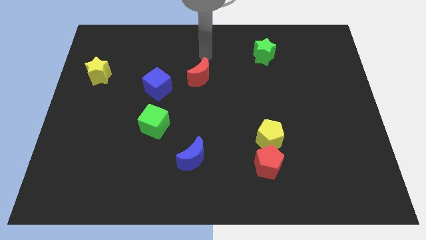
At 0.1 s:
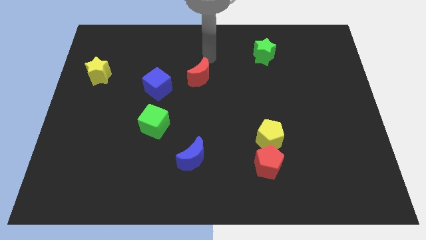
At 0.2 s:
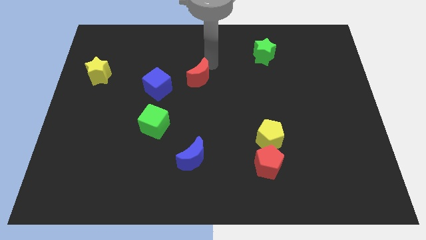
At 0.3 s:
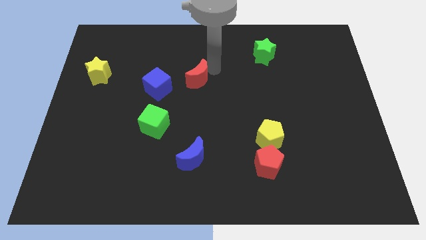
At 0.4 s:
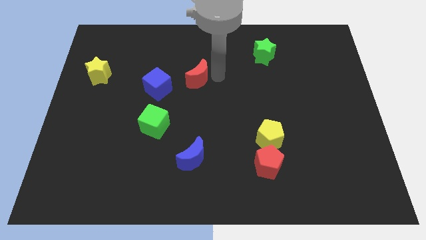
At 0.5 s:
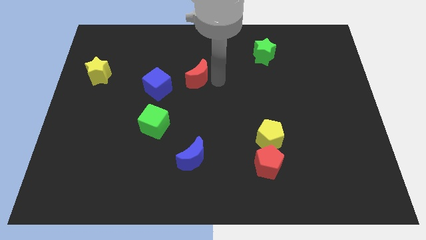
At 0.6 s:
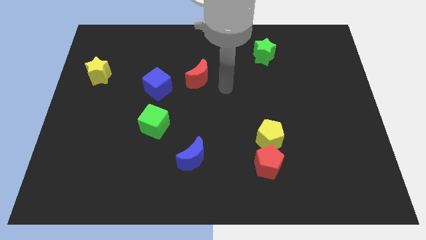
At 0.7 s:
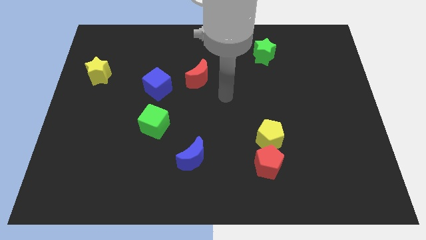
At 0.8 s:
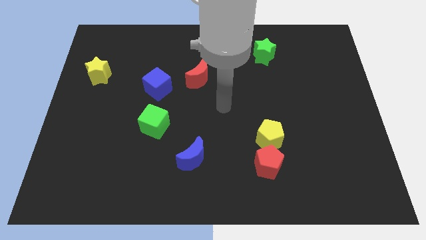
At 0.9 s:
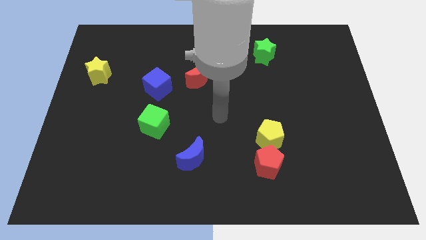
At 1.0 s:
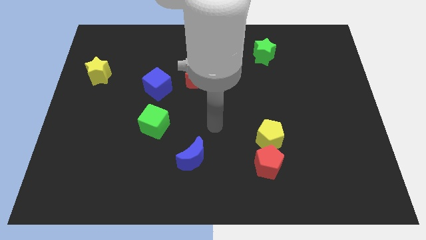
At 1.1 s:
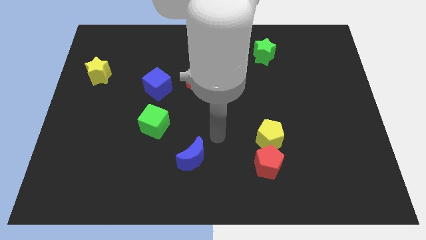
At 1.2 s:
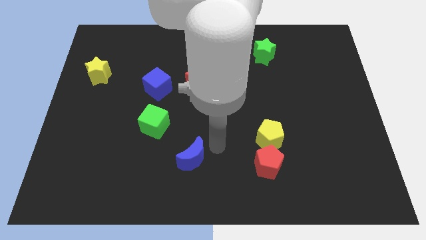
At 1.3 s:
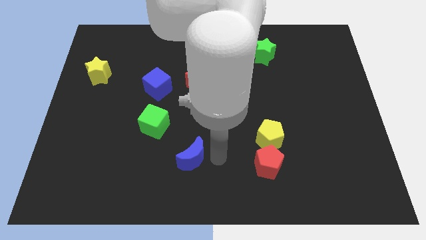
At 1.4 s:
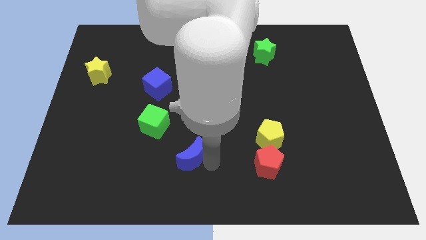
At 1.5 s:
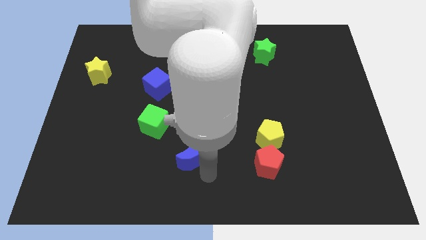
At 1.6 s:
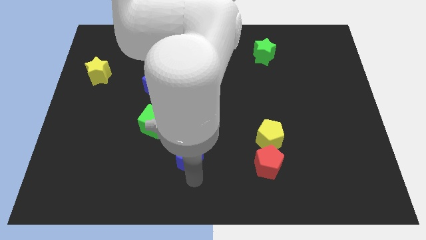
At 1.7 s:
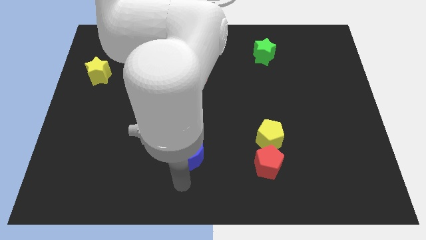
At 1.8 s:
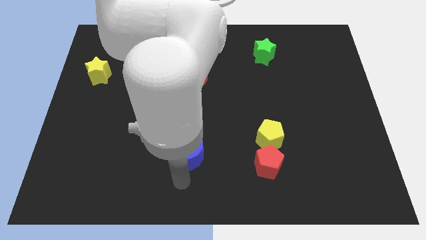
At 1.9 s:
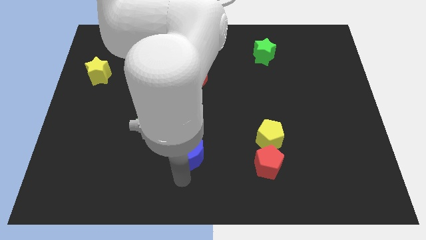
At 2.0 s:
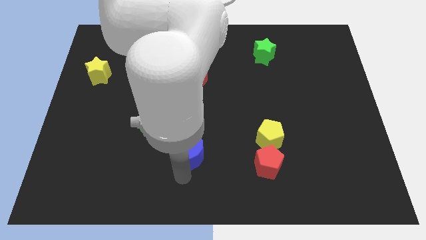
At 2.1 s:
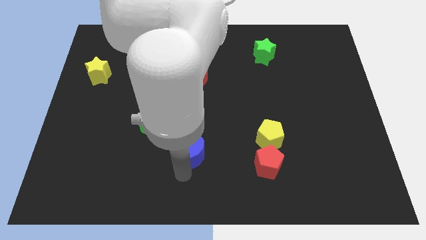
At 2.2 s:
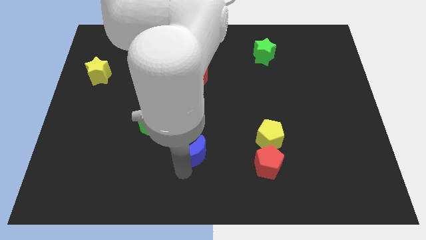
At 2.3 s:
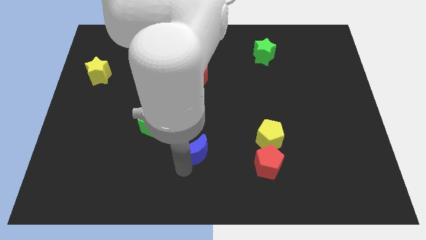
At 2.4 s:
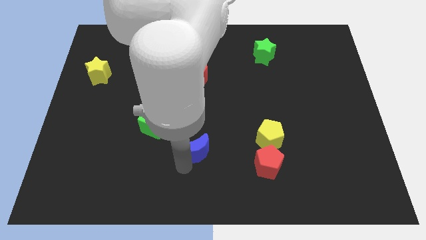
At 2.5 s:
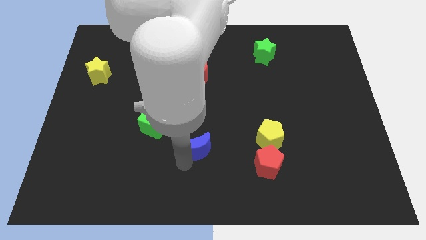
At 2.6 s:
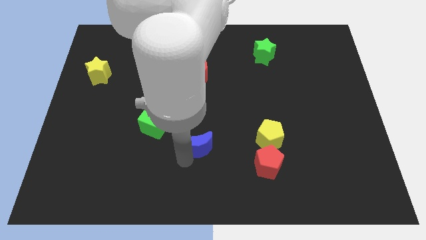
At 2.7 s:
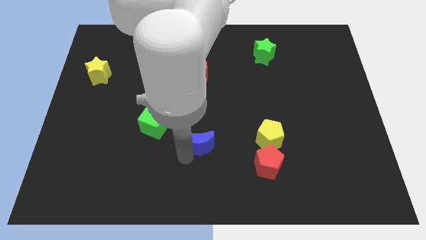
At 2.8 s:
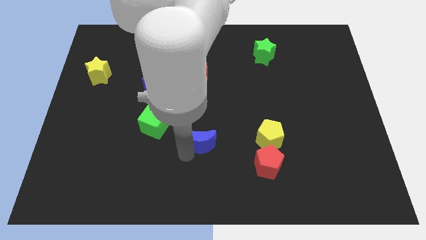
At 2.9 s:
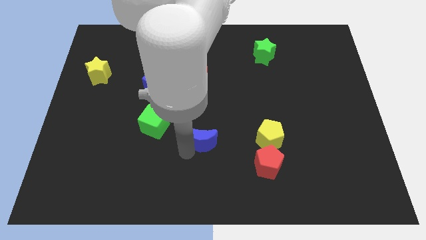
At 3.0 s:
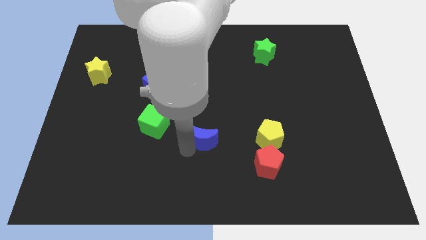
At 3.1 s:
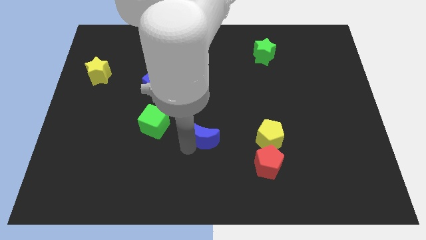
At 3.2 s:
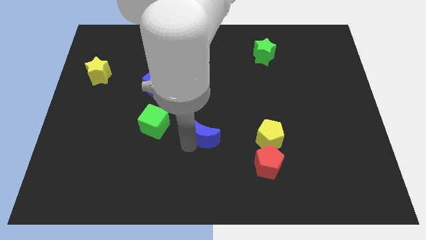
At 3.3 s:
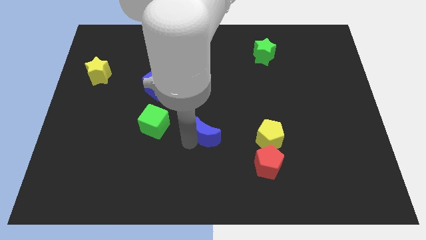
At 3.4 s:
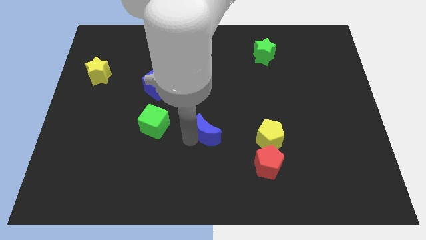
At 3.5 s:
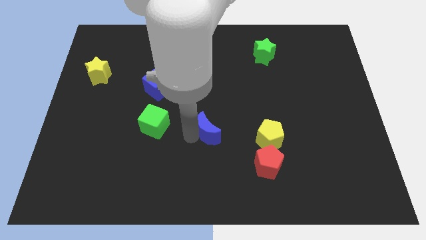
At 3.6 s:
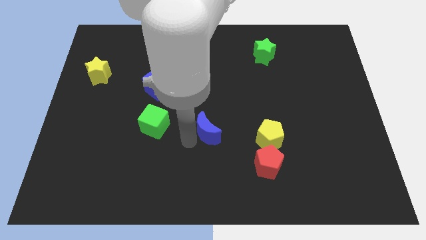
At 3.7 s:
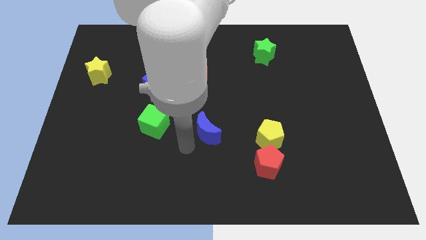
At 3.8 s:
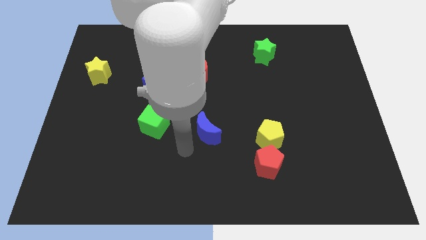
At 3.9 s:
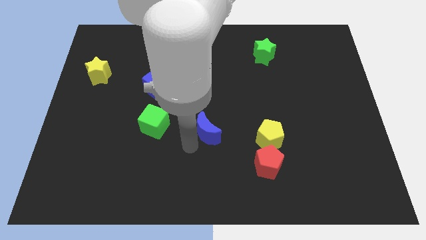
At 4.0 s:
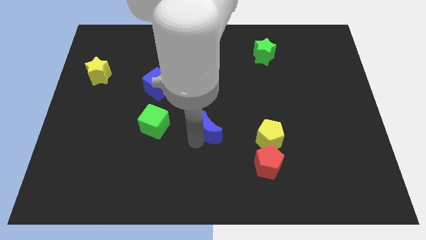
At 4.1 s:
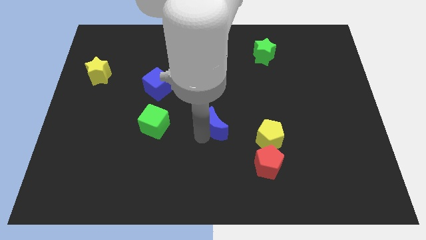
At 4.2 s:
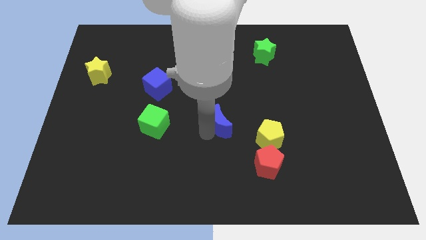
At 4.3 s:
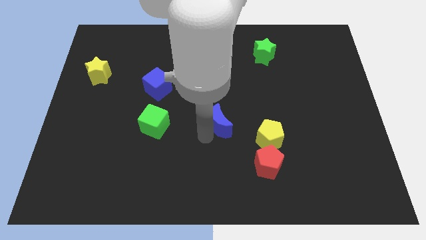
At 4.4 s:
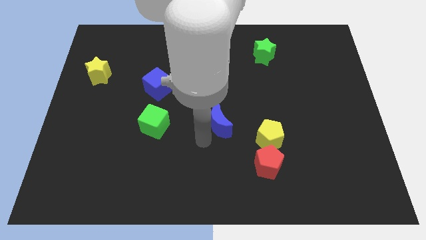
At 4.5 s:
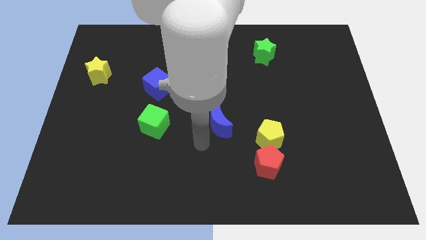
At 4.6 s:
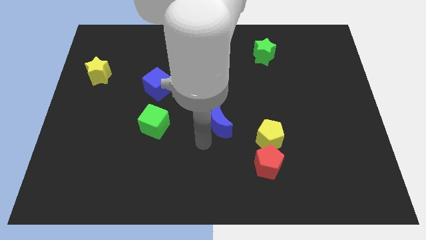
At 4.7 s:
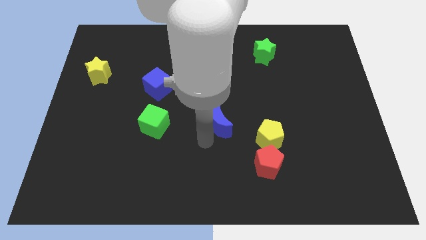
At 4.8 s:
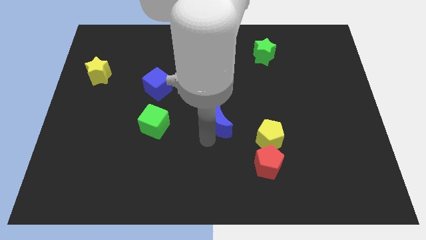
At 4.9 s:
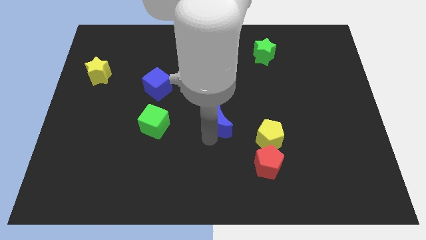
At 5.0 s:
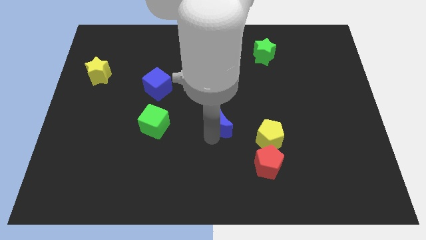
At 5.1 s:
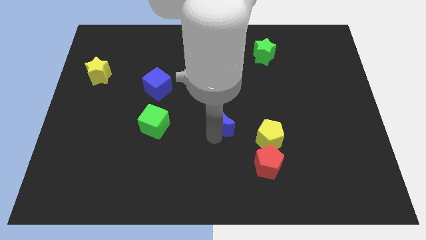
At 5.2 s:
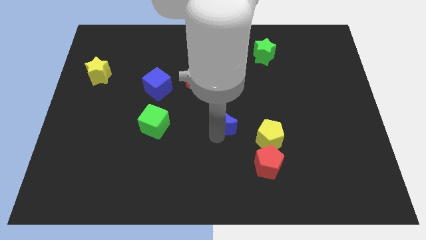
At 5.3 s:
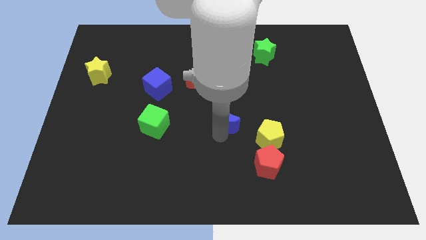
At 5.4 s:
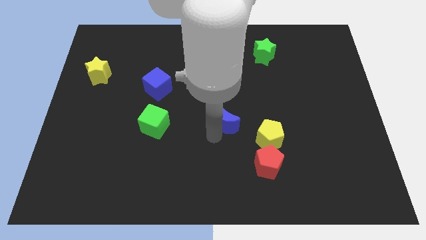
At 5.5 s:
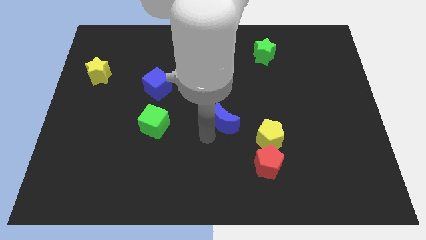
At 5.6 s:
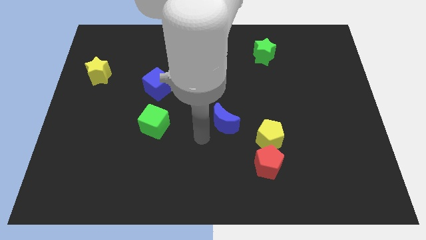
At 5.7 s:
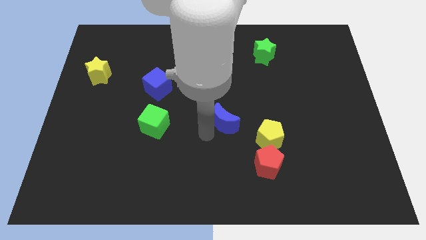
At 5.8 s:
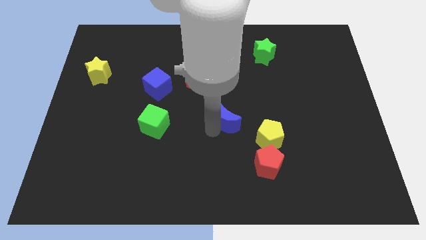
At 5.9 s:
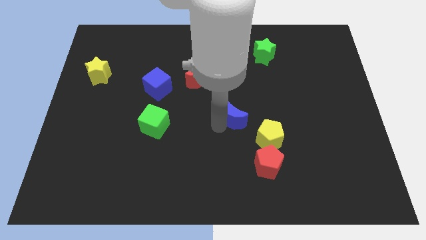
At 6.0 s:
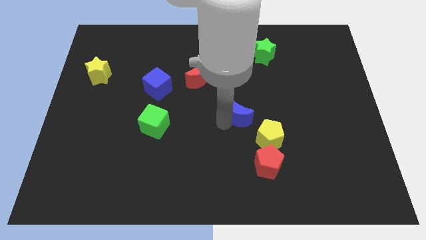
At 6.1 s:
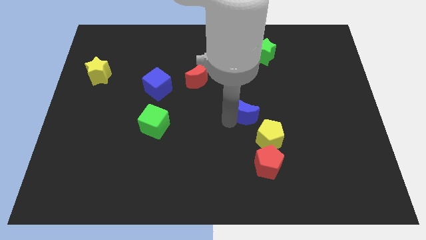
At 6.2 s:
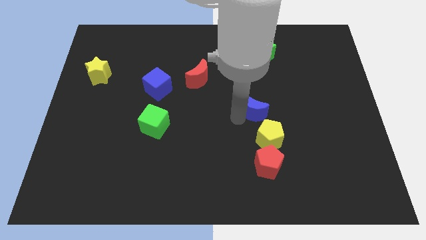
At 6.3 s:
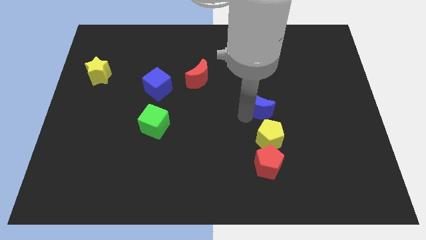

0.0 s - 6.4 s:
move the blue moon up and right

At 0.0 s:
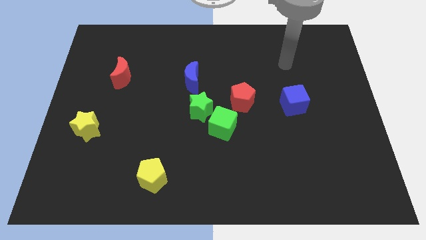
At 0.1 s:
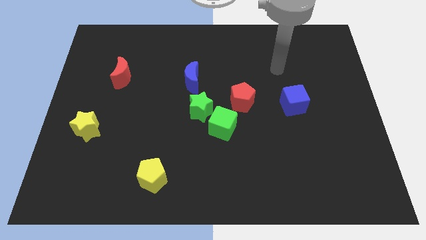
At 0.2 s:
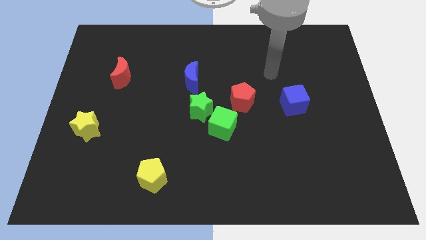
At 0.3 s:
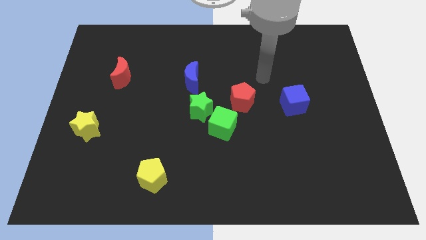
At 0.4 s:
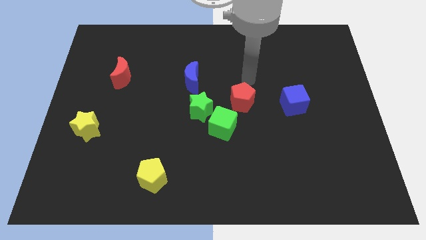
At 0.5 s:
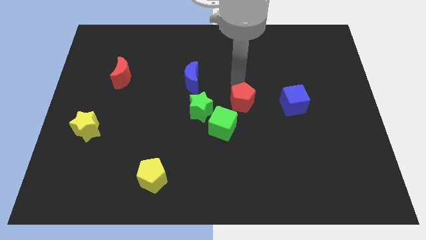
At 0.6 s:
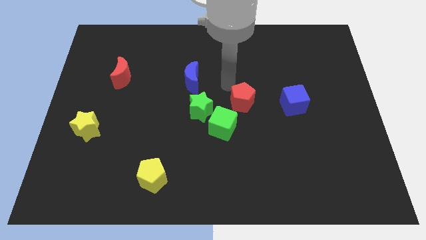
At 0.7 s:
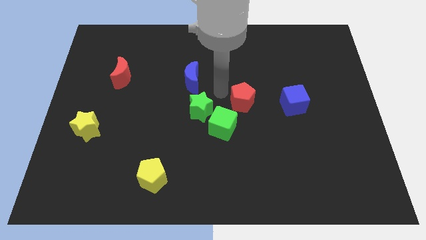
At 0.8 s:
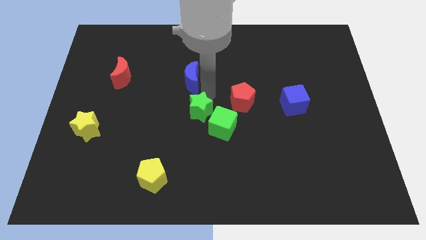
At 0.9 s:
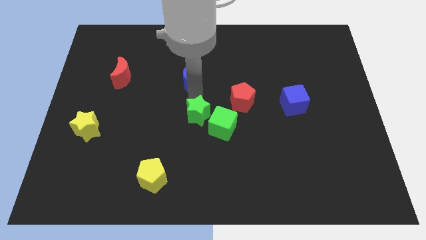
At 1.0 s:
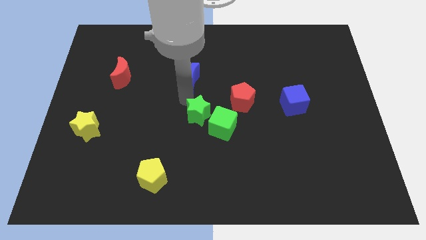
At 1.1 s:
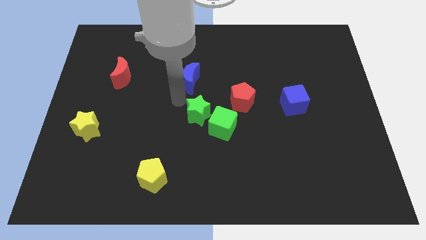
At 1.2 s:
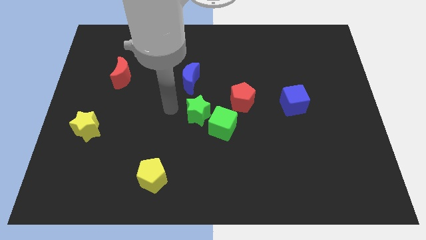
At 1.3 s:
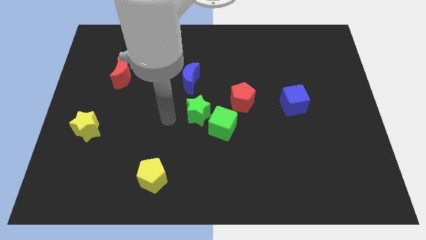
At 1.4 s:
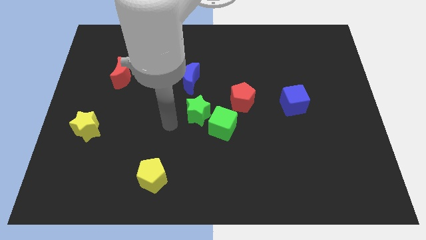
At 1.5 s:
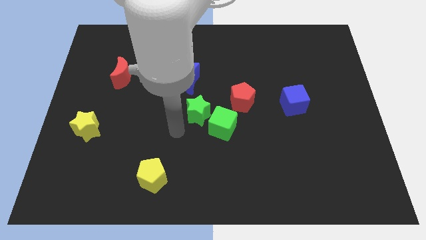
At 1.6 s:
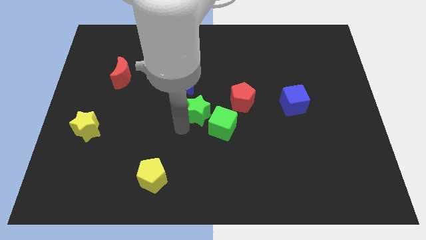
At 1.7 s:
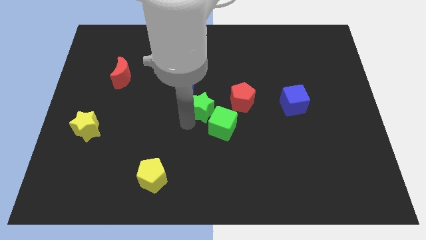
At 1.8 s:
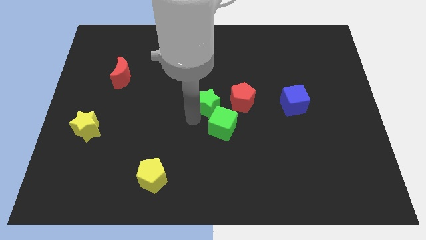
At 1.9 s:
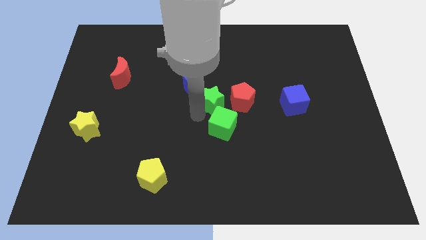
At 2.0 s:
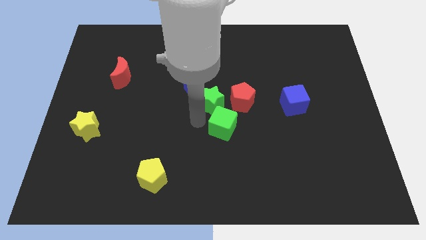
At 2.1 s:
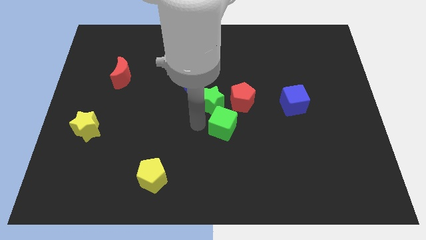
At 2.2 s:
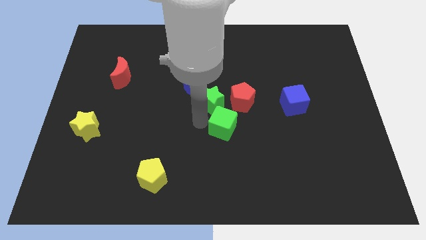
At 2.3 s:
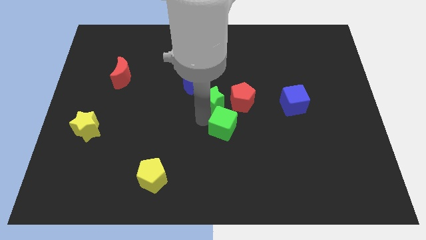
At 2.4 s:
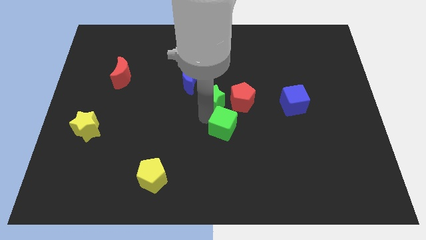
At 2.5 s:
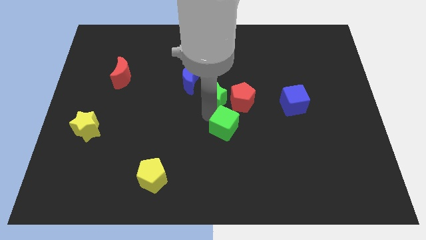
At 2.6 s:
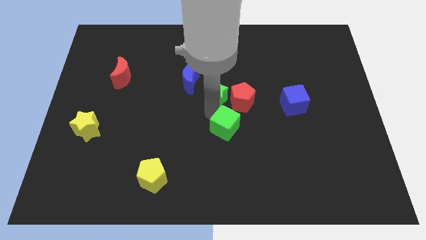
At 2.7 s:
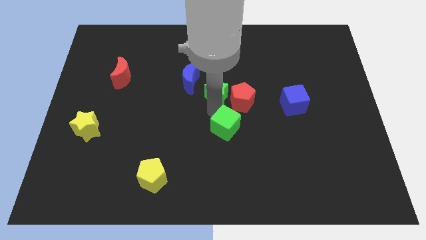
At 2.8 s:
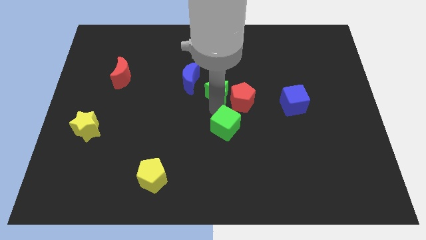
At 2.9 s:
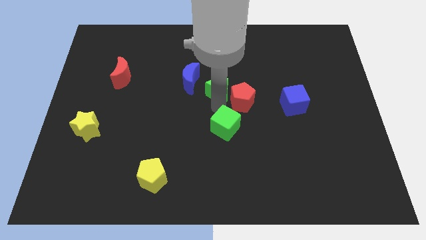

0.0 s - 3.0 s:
move the green star up and then to the right somewhat
